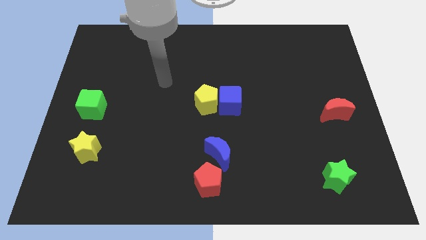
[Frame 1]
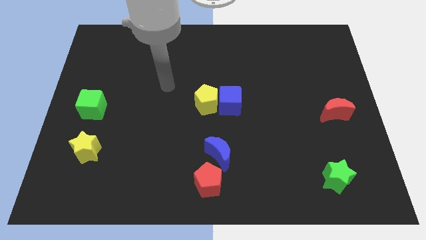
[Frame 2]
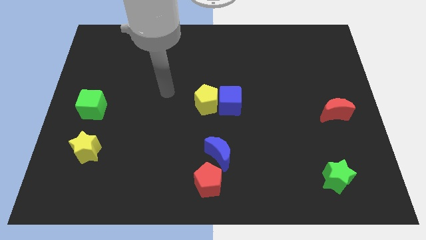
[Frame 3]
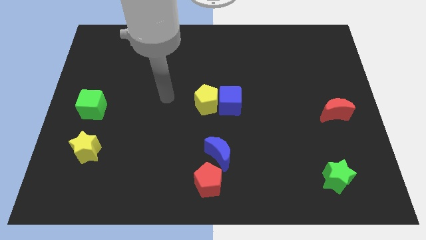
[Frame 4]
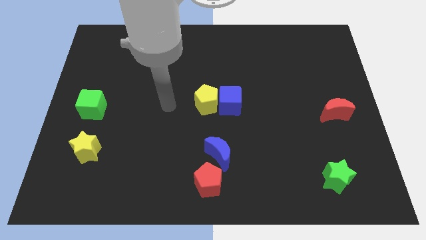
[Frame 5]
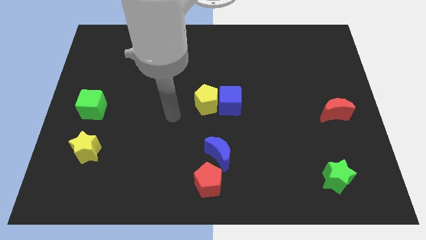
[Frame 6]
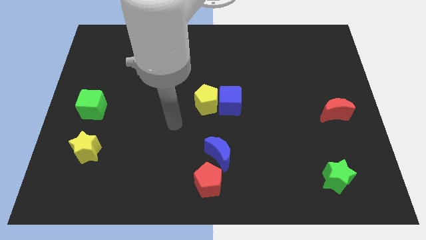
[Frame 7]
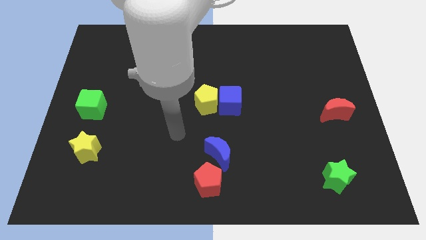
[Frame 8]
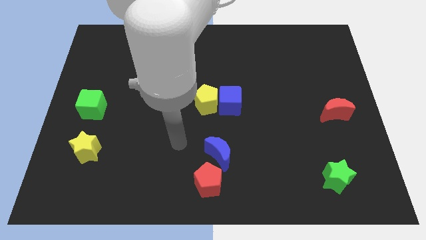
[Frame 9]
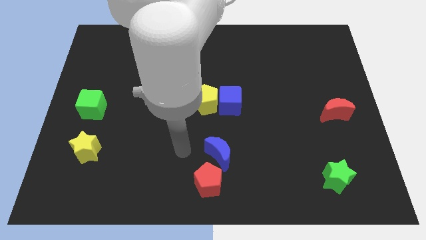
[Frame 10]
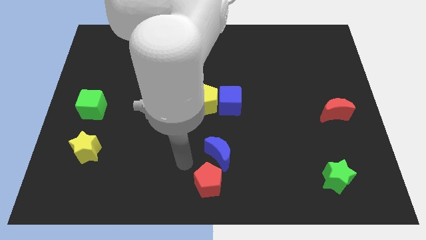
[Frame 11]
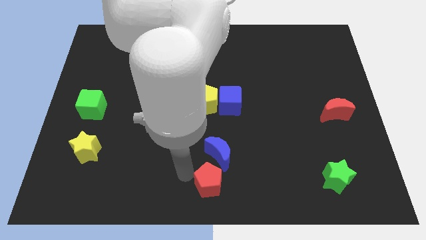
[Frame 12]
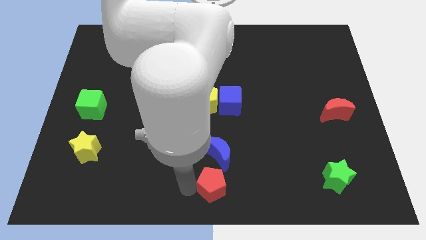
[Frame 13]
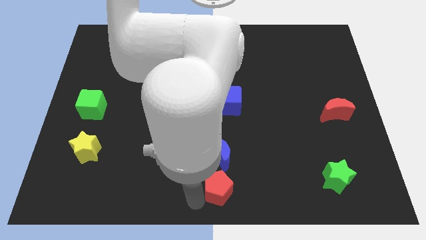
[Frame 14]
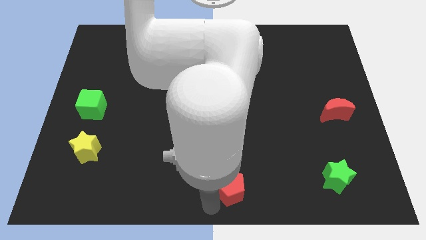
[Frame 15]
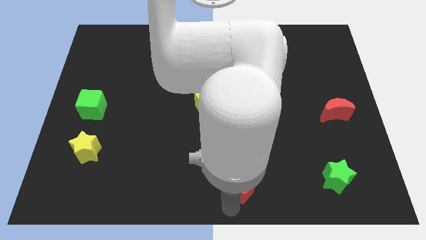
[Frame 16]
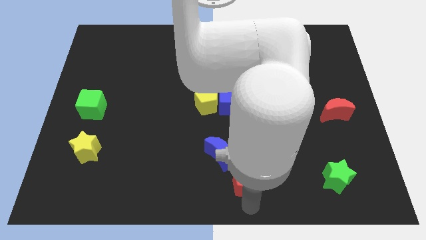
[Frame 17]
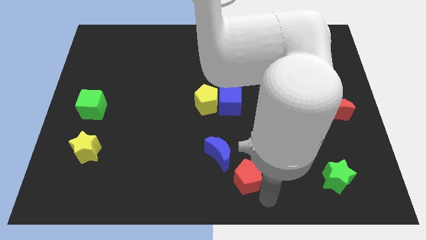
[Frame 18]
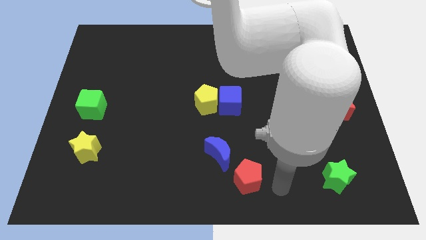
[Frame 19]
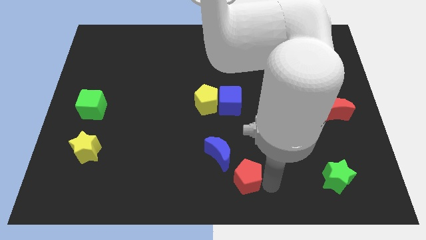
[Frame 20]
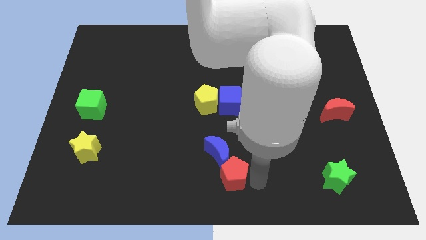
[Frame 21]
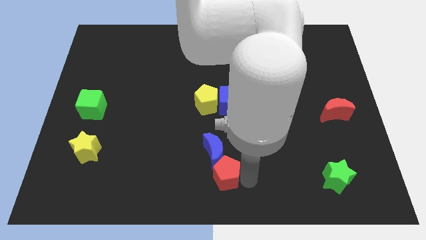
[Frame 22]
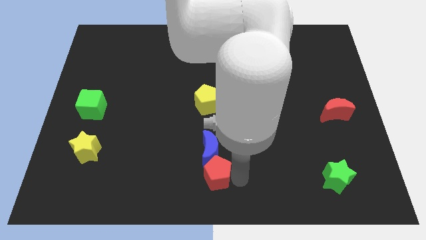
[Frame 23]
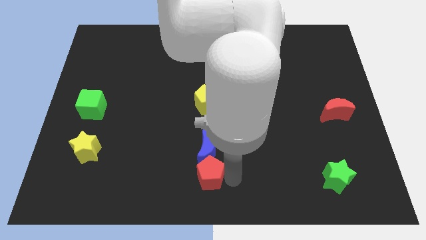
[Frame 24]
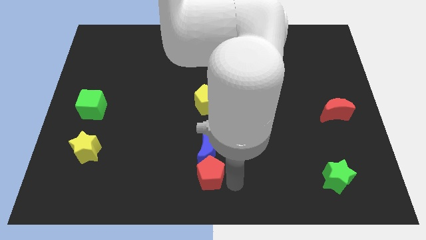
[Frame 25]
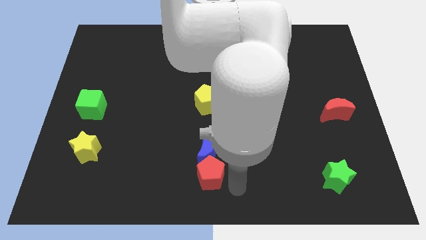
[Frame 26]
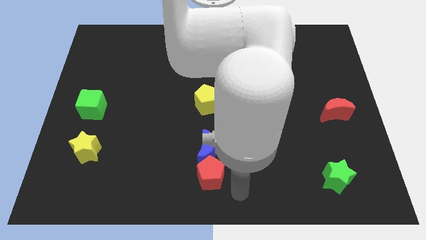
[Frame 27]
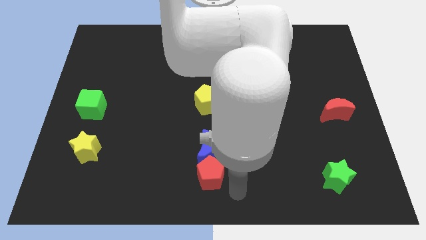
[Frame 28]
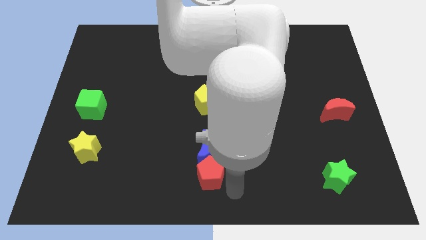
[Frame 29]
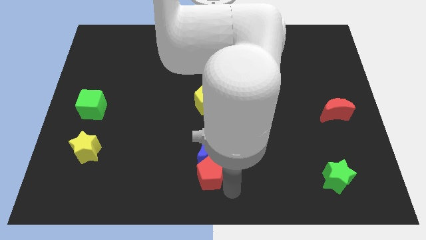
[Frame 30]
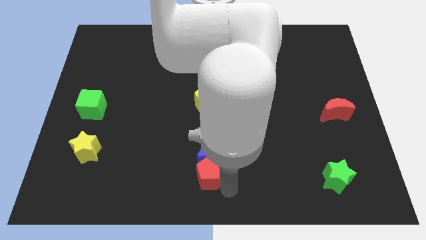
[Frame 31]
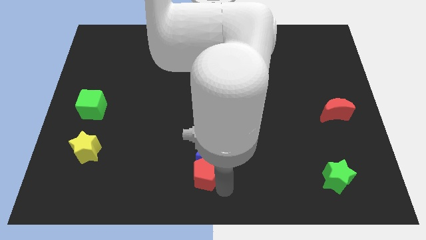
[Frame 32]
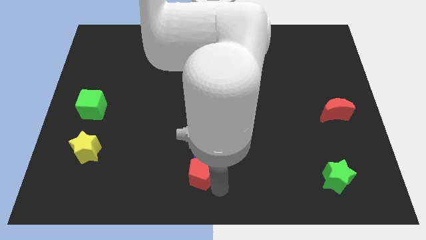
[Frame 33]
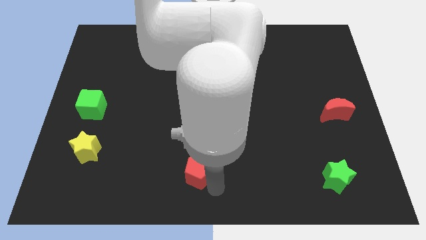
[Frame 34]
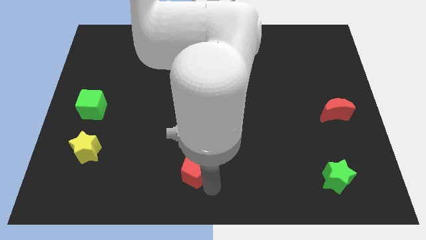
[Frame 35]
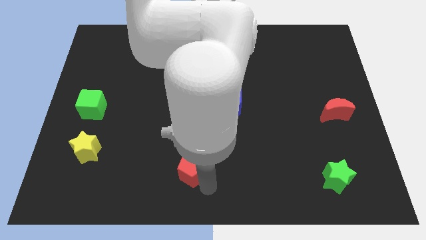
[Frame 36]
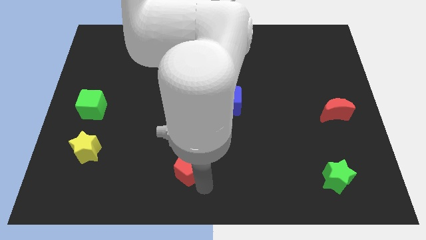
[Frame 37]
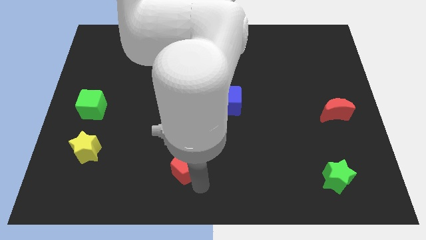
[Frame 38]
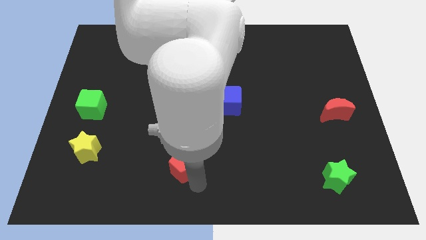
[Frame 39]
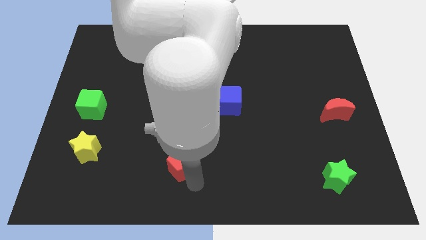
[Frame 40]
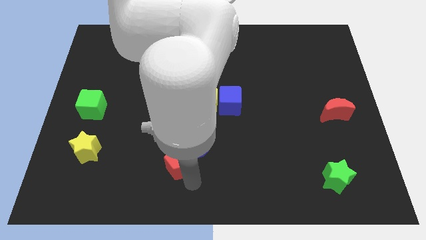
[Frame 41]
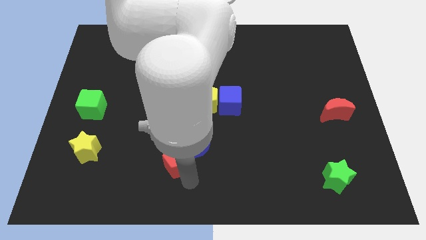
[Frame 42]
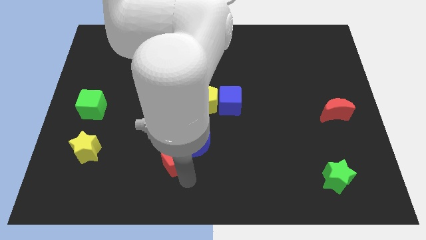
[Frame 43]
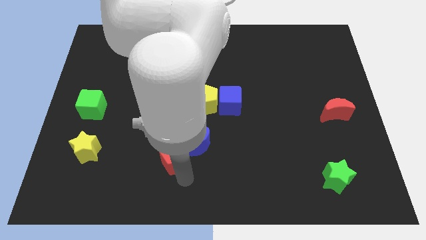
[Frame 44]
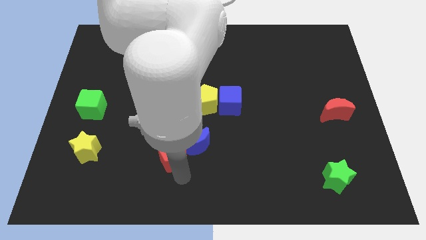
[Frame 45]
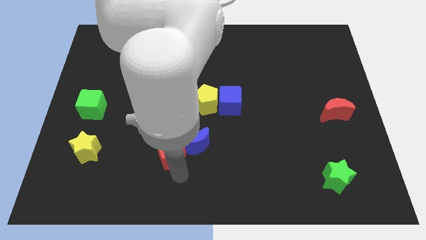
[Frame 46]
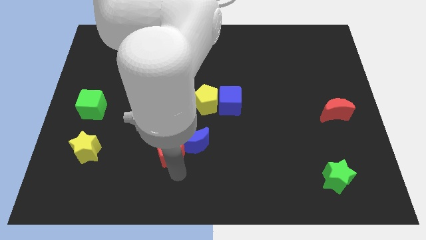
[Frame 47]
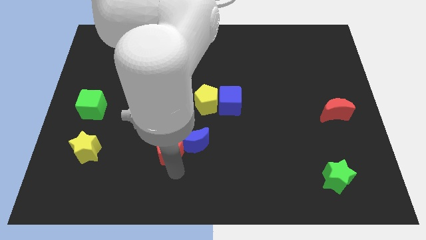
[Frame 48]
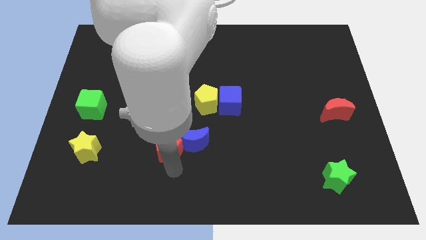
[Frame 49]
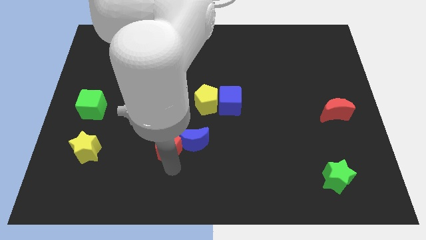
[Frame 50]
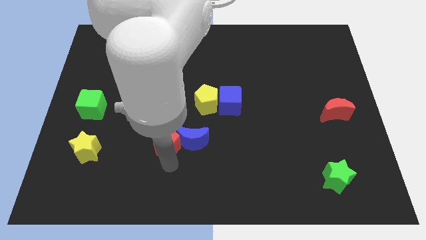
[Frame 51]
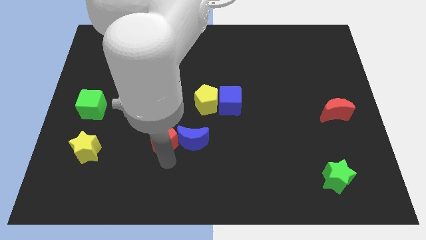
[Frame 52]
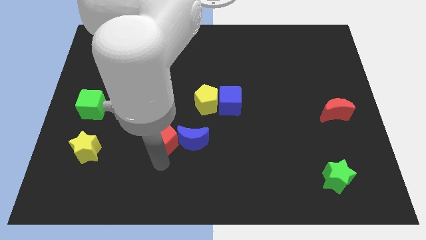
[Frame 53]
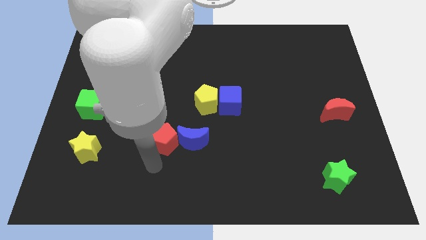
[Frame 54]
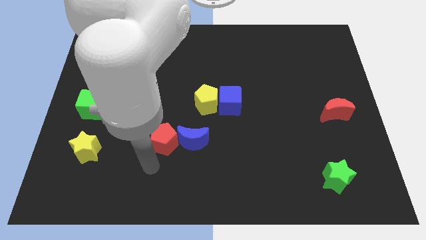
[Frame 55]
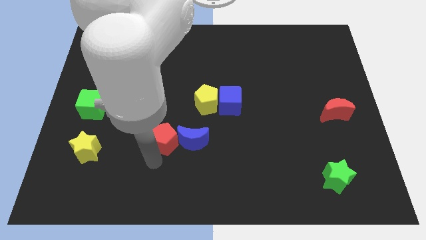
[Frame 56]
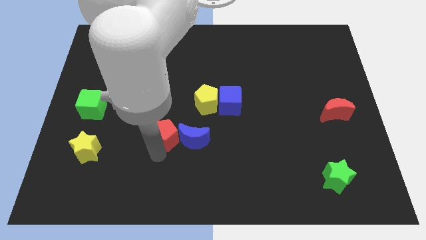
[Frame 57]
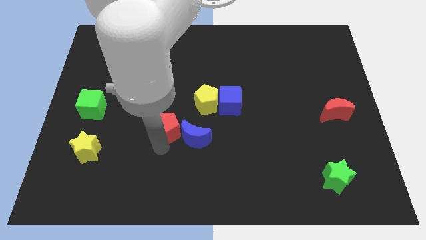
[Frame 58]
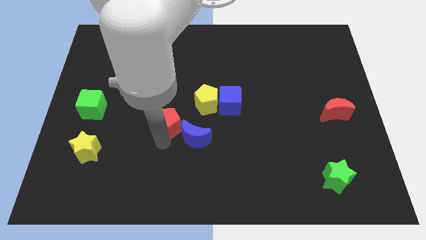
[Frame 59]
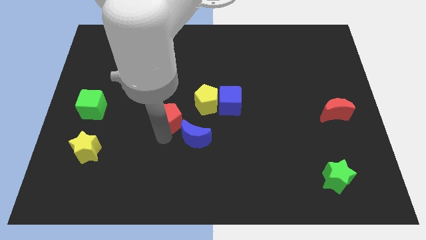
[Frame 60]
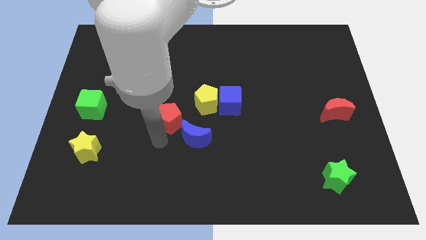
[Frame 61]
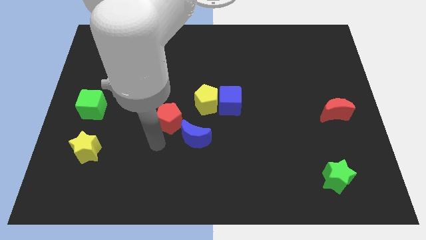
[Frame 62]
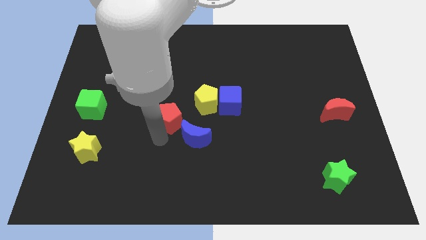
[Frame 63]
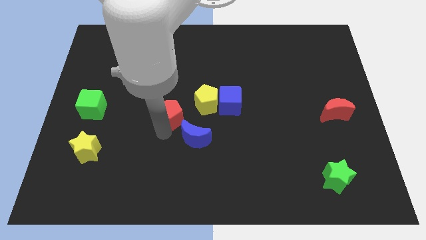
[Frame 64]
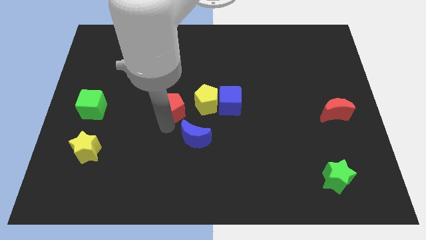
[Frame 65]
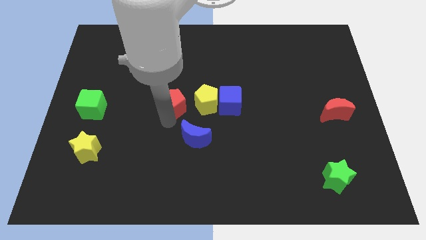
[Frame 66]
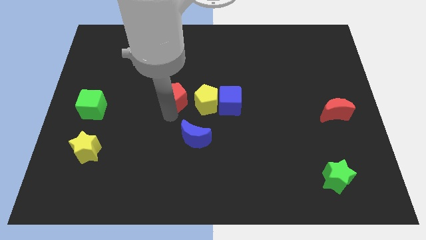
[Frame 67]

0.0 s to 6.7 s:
slide the red pentagon diagonally up and to the left of the yellow pentagon
